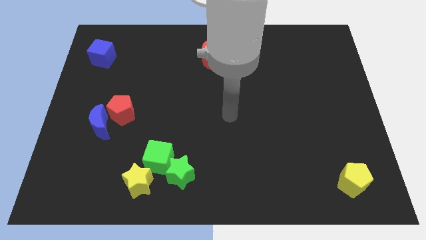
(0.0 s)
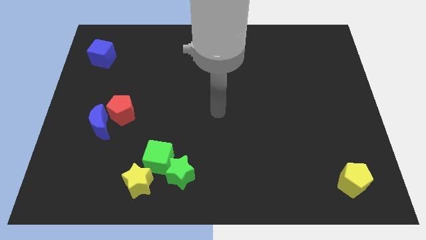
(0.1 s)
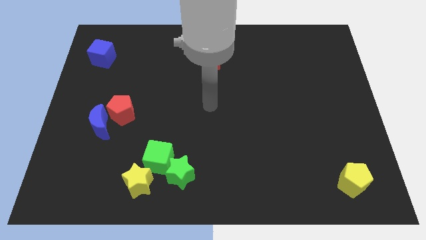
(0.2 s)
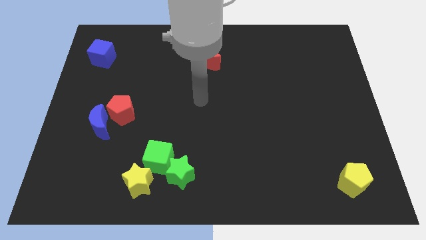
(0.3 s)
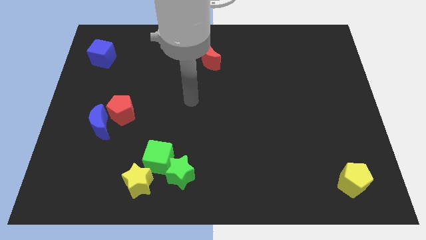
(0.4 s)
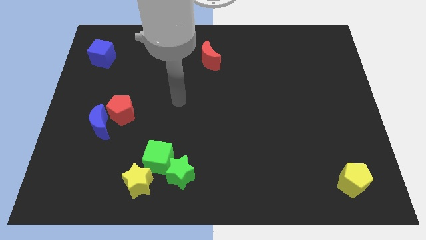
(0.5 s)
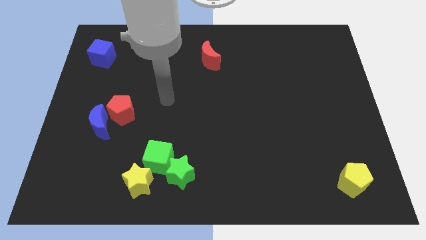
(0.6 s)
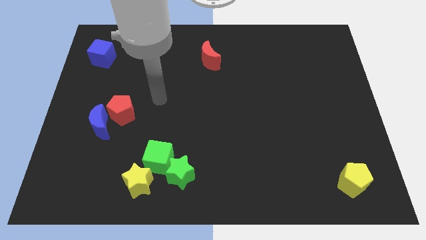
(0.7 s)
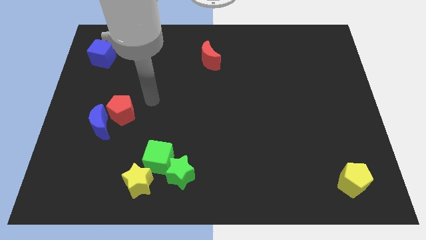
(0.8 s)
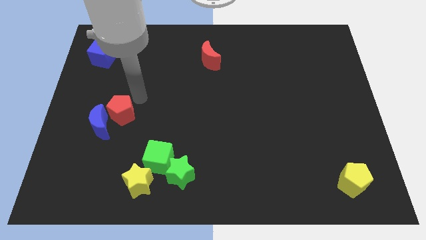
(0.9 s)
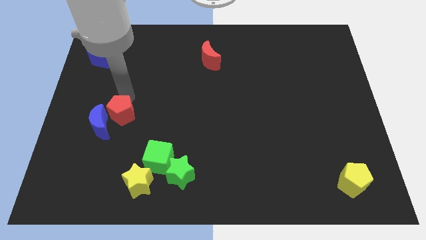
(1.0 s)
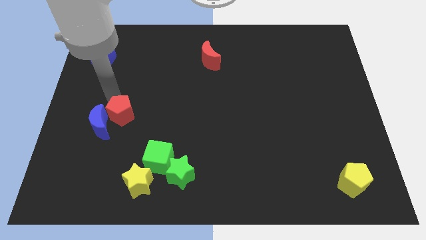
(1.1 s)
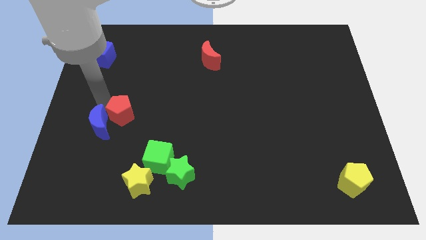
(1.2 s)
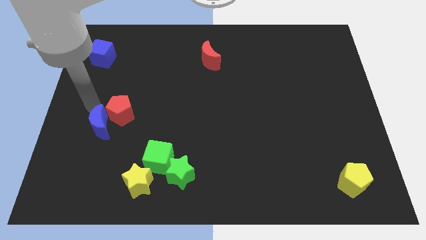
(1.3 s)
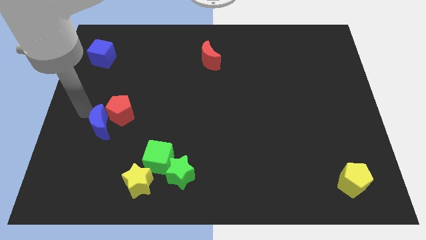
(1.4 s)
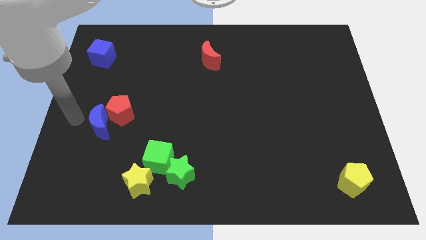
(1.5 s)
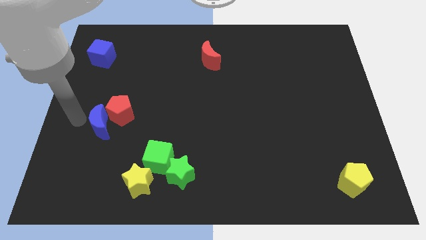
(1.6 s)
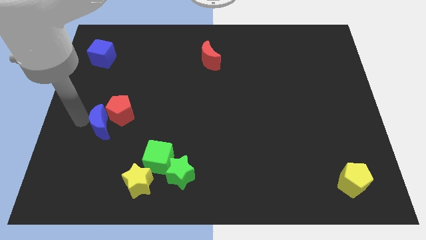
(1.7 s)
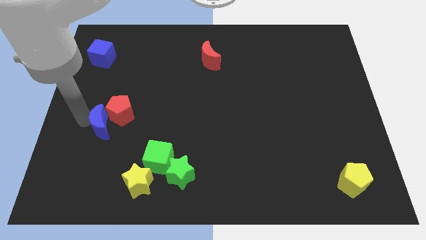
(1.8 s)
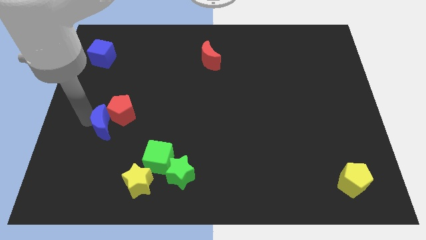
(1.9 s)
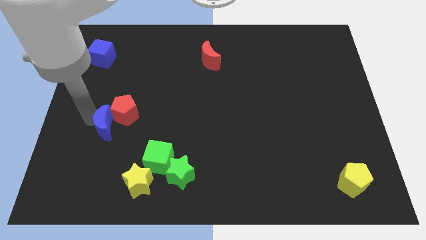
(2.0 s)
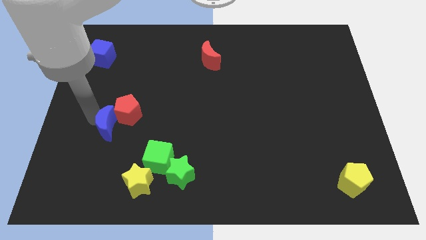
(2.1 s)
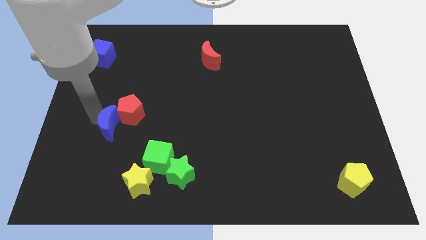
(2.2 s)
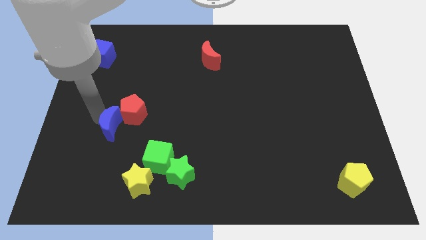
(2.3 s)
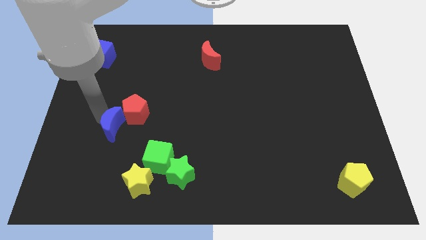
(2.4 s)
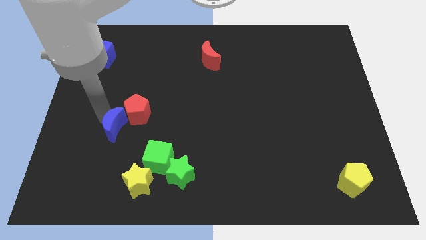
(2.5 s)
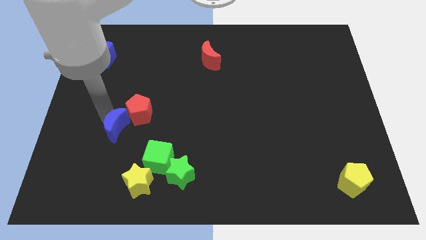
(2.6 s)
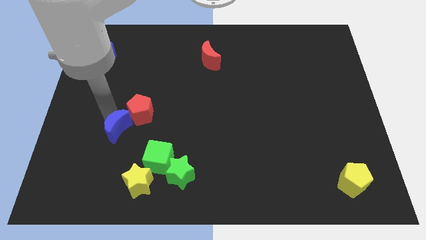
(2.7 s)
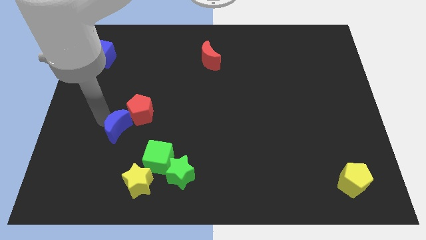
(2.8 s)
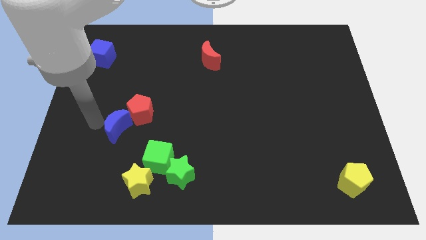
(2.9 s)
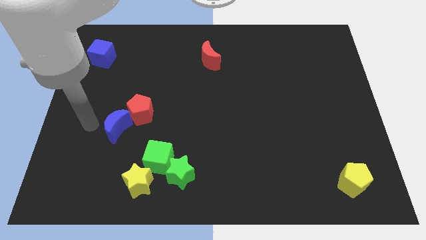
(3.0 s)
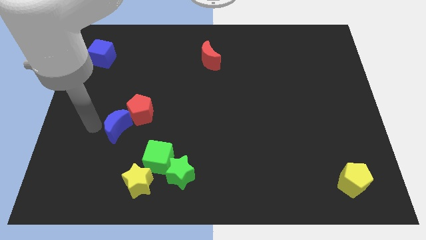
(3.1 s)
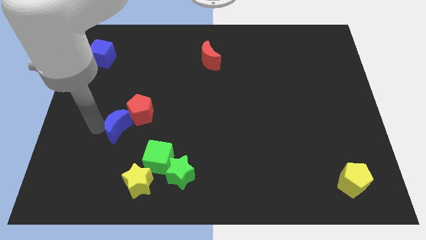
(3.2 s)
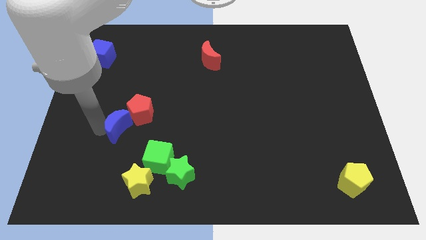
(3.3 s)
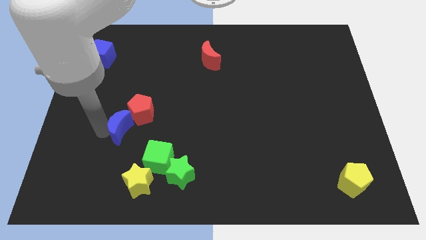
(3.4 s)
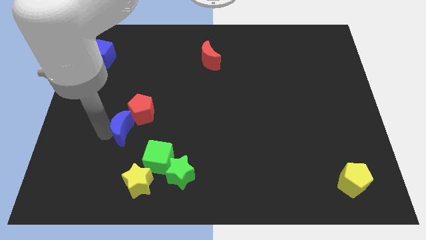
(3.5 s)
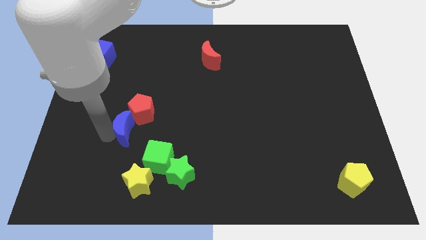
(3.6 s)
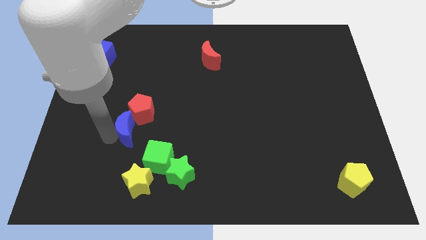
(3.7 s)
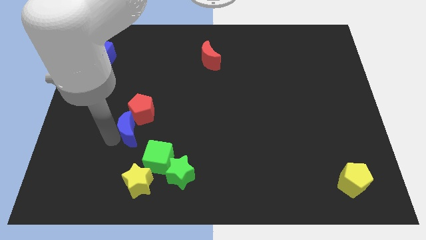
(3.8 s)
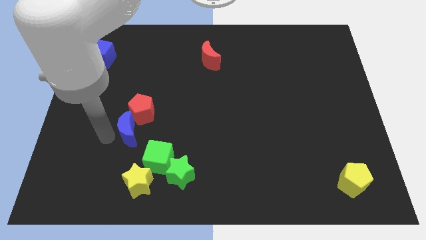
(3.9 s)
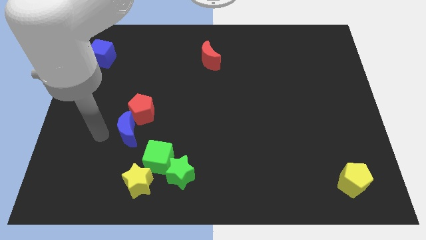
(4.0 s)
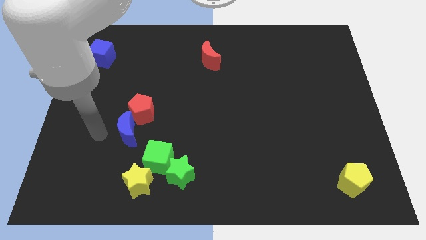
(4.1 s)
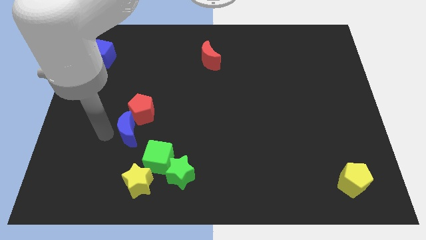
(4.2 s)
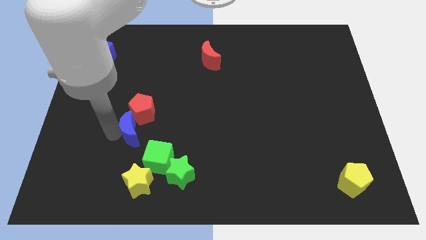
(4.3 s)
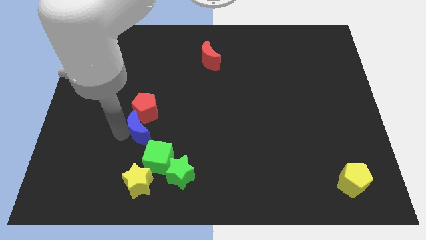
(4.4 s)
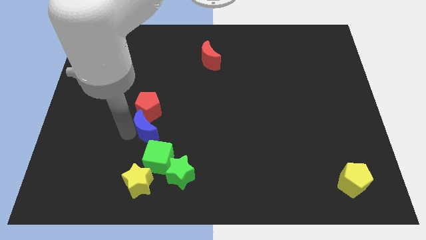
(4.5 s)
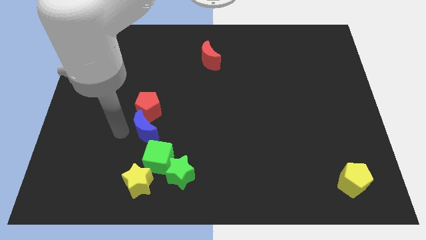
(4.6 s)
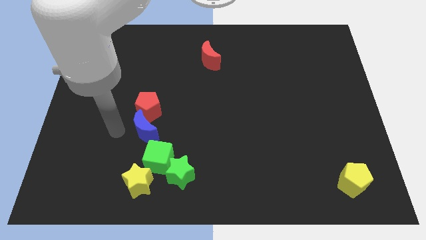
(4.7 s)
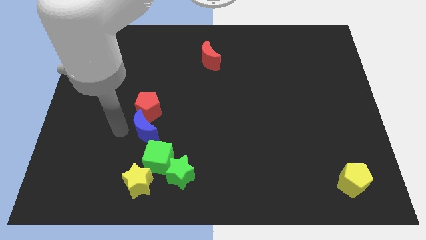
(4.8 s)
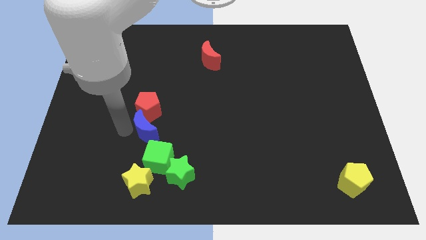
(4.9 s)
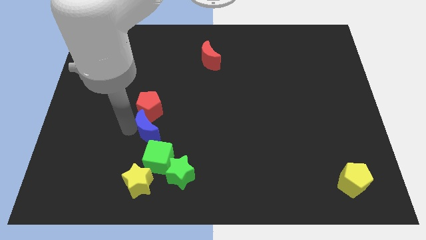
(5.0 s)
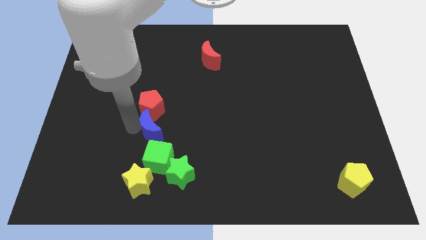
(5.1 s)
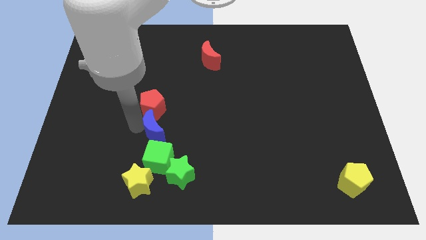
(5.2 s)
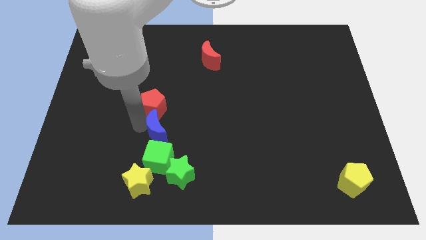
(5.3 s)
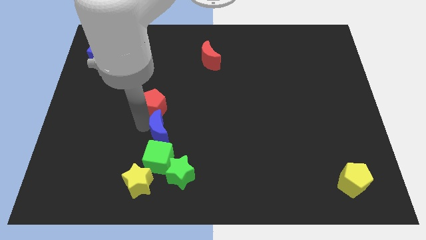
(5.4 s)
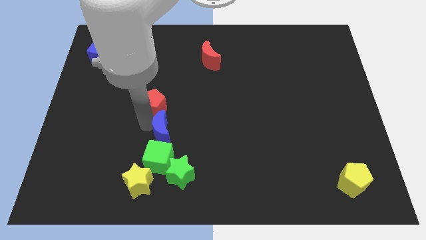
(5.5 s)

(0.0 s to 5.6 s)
push the blue moon above the green star

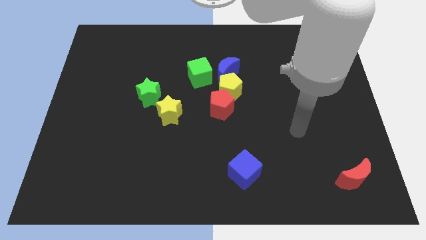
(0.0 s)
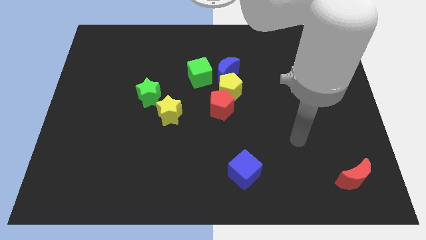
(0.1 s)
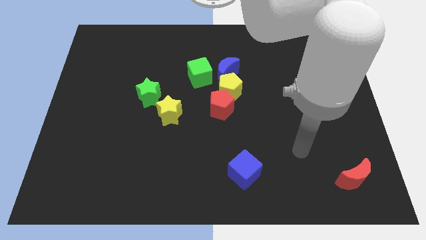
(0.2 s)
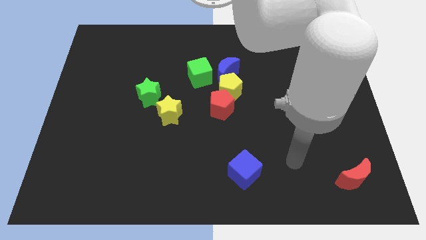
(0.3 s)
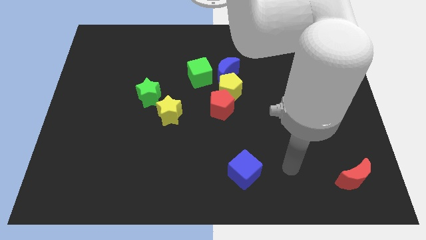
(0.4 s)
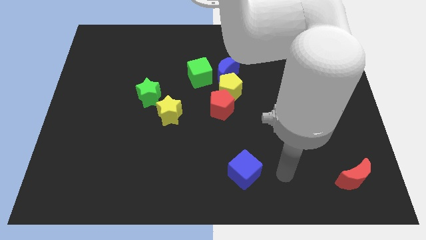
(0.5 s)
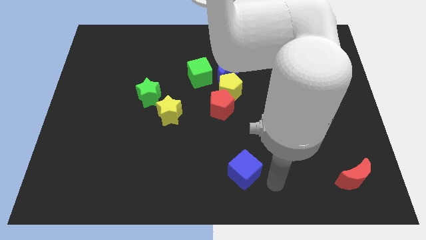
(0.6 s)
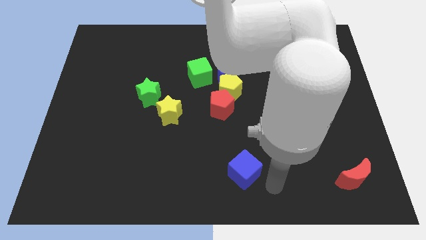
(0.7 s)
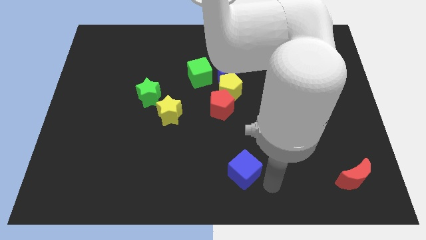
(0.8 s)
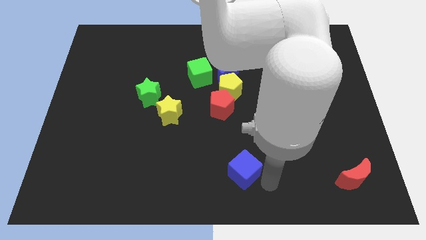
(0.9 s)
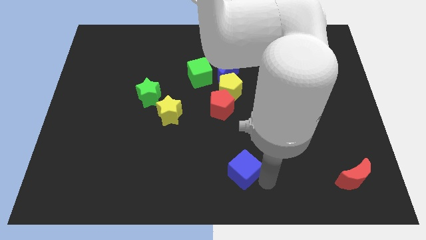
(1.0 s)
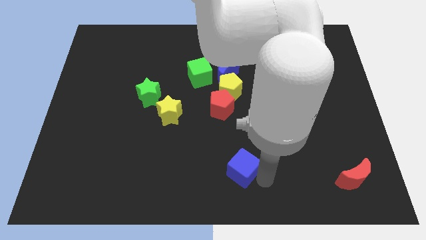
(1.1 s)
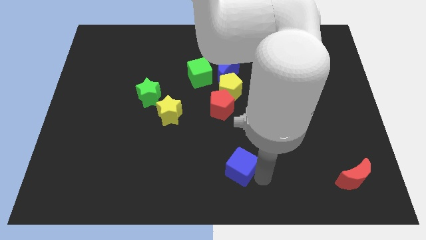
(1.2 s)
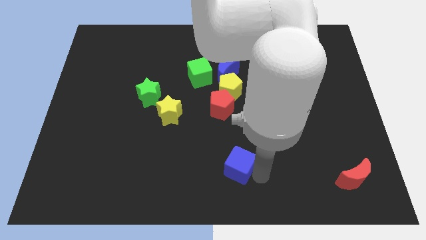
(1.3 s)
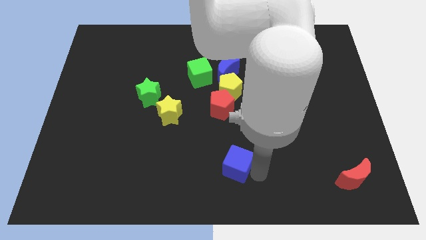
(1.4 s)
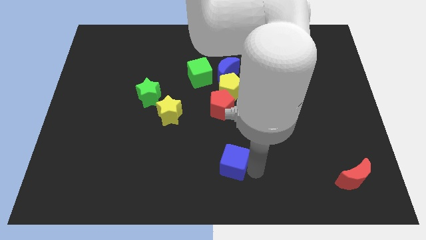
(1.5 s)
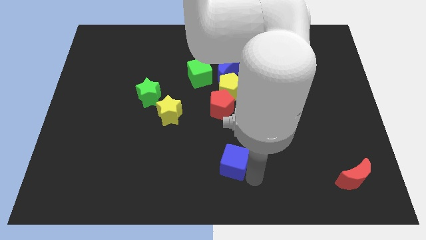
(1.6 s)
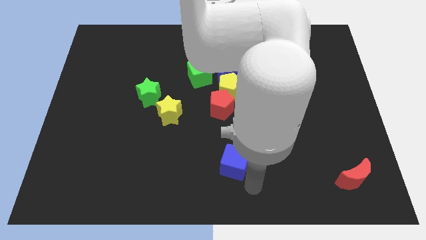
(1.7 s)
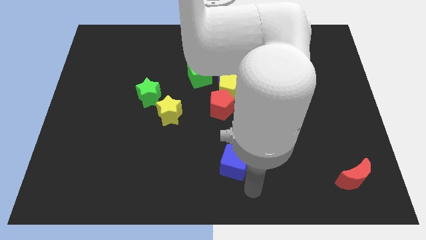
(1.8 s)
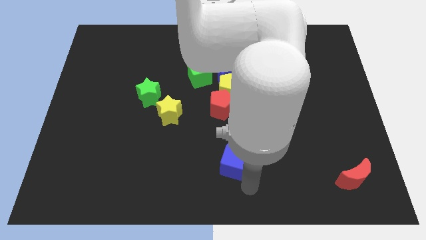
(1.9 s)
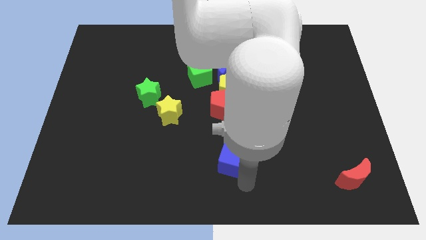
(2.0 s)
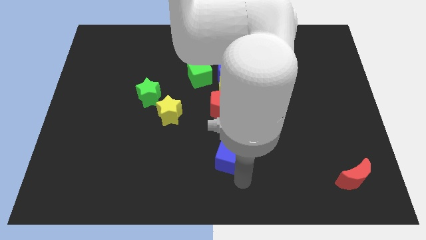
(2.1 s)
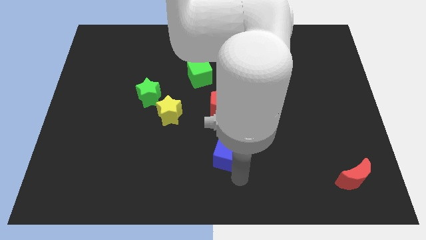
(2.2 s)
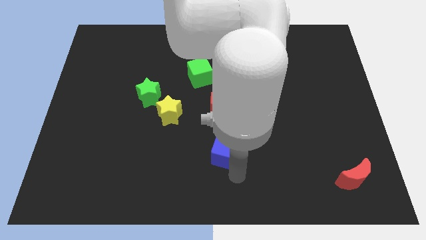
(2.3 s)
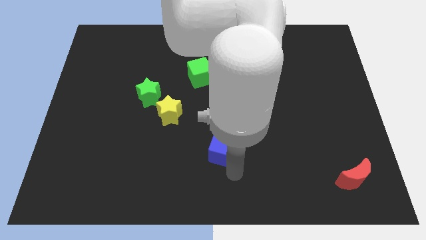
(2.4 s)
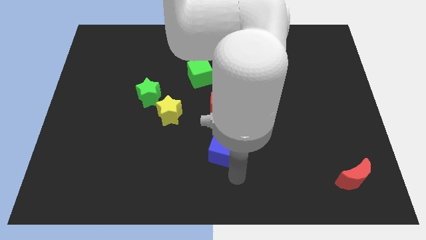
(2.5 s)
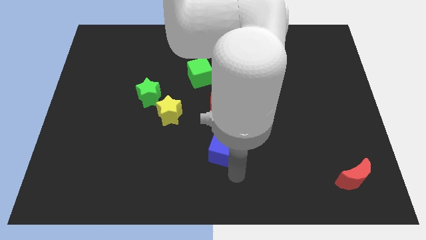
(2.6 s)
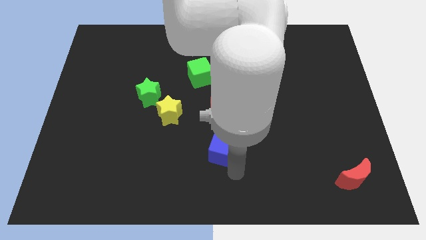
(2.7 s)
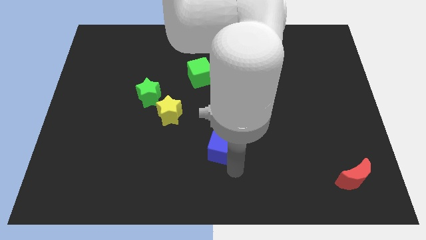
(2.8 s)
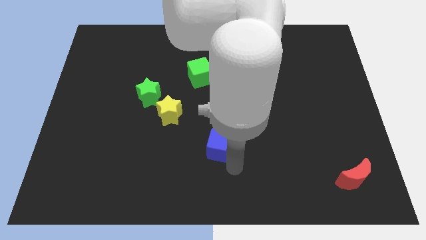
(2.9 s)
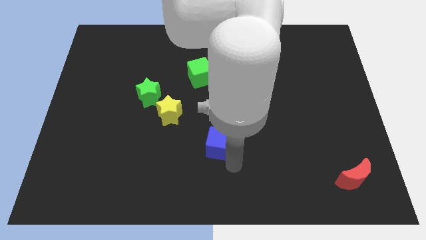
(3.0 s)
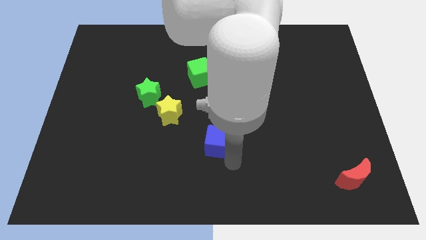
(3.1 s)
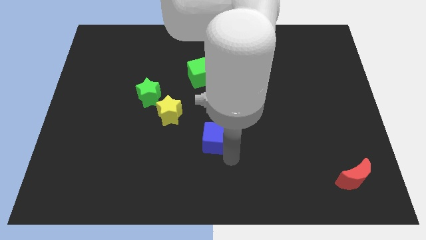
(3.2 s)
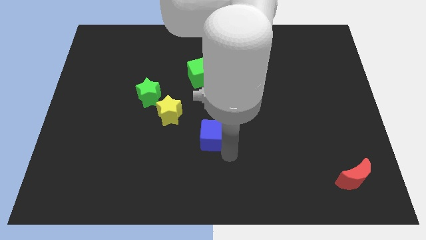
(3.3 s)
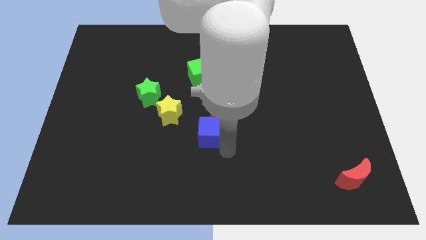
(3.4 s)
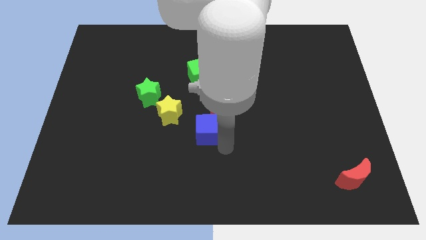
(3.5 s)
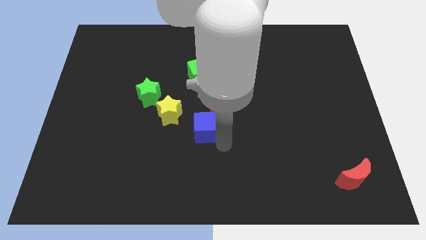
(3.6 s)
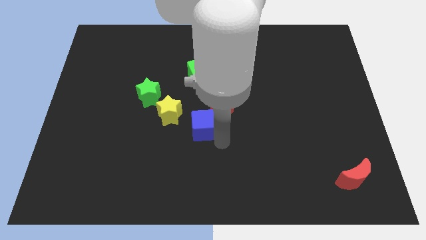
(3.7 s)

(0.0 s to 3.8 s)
move the blue cube to the bottom of the green cube
